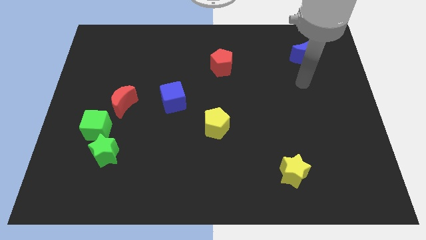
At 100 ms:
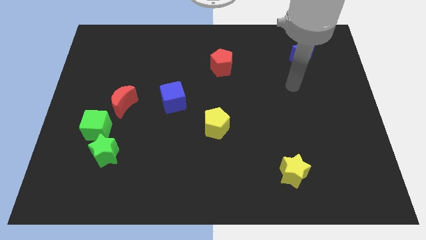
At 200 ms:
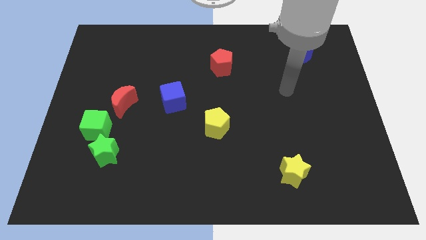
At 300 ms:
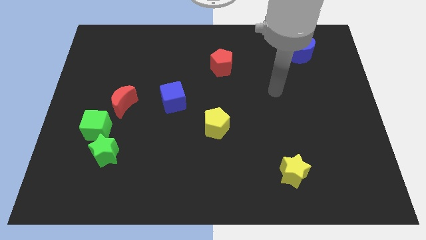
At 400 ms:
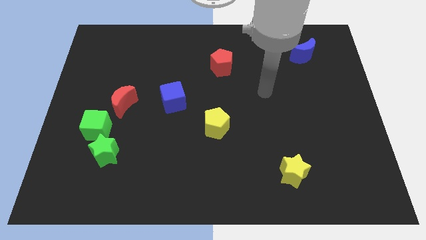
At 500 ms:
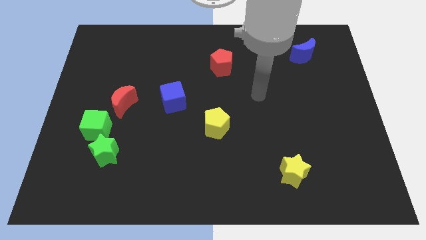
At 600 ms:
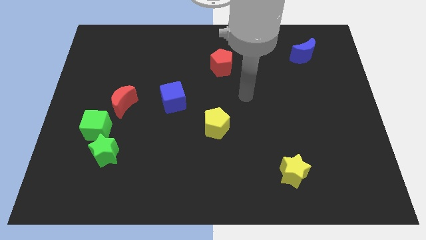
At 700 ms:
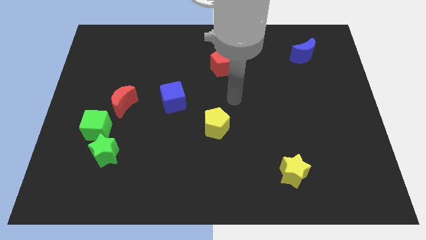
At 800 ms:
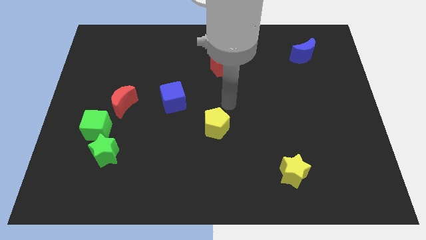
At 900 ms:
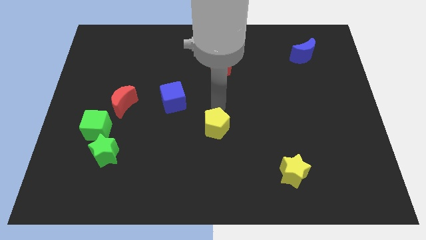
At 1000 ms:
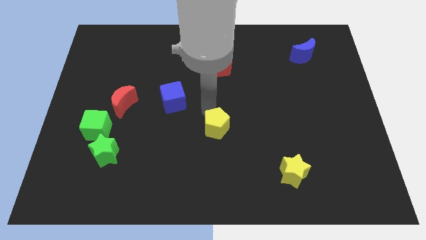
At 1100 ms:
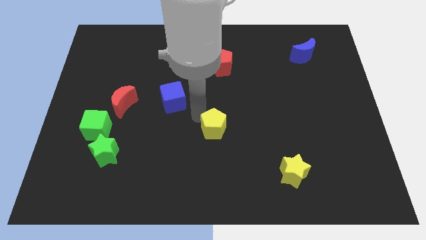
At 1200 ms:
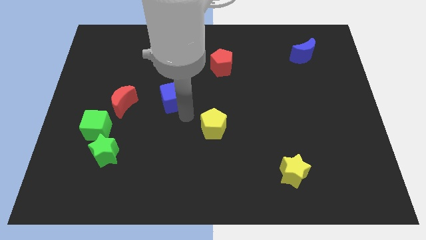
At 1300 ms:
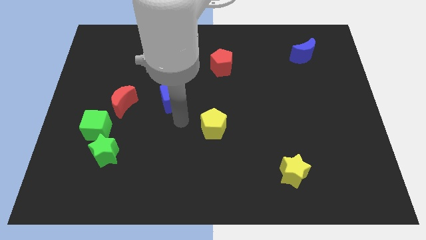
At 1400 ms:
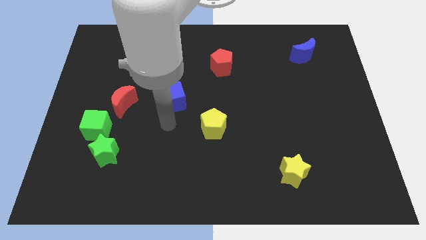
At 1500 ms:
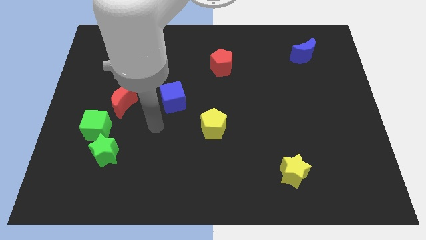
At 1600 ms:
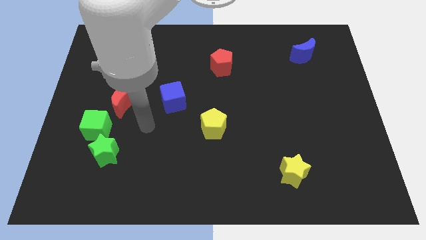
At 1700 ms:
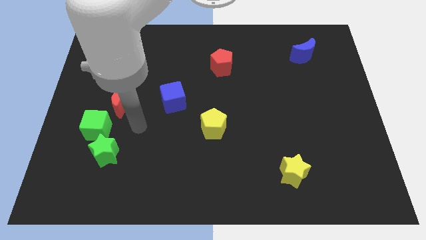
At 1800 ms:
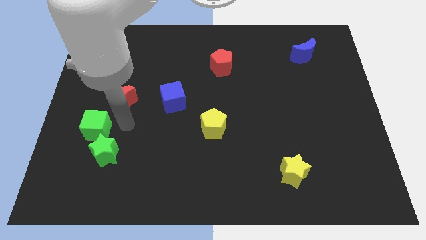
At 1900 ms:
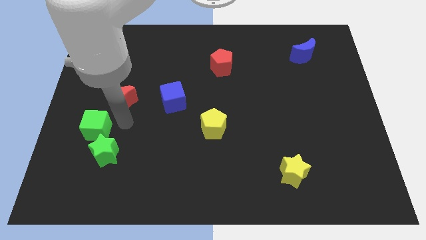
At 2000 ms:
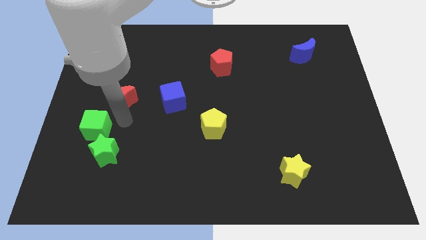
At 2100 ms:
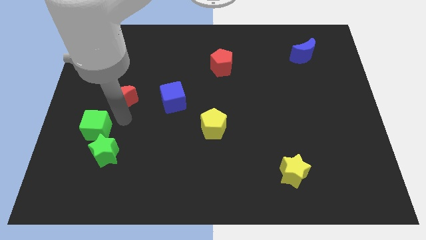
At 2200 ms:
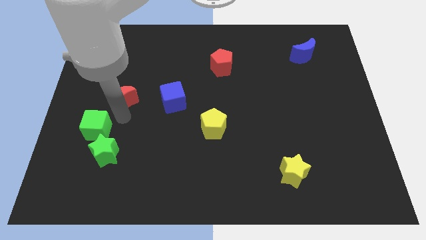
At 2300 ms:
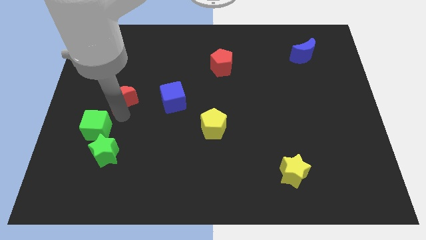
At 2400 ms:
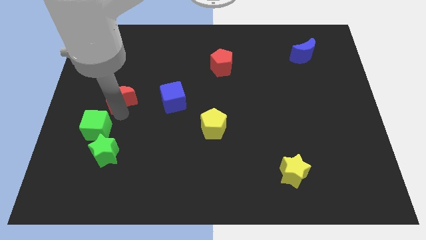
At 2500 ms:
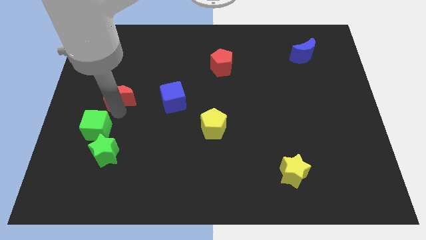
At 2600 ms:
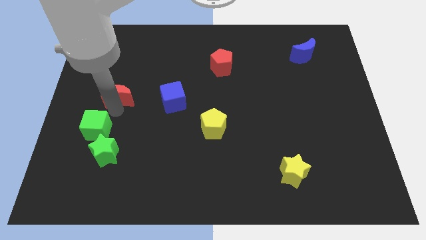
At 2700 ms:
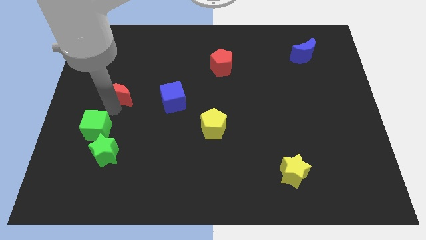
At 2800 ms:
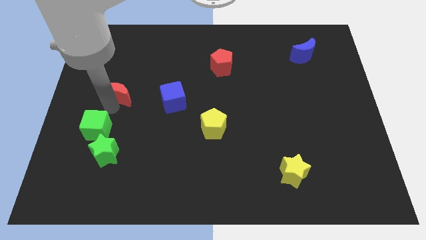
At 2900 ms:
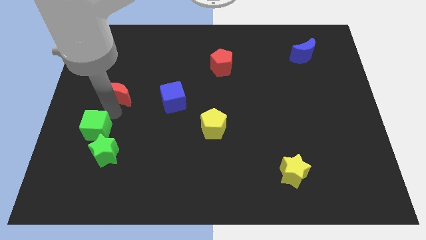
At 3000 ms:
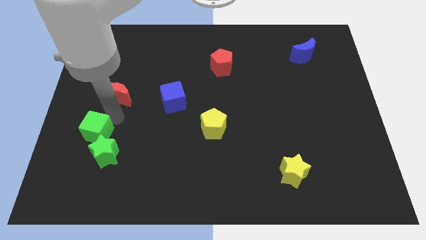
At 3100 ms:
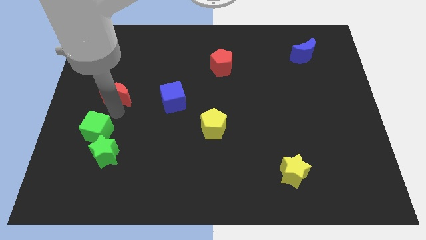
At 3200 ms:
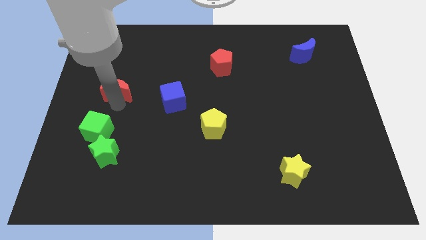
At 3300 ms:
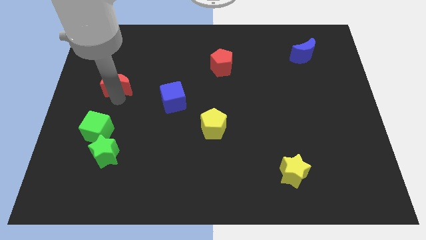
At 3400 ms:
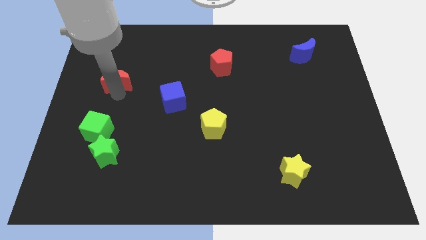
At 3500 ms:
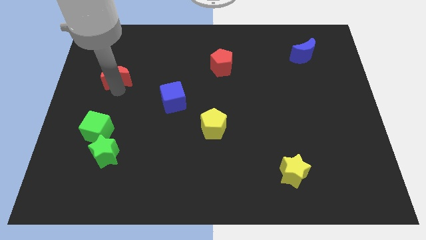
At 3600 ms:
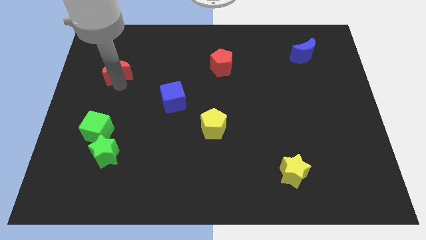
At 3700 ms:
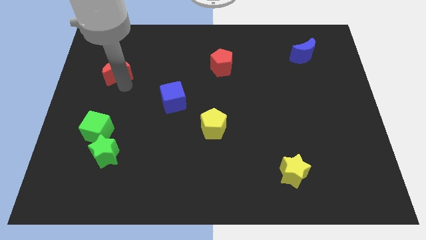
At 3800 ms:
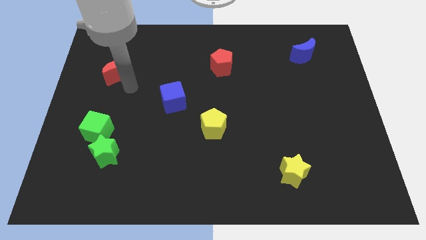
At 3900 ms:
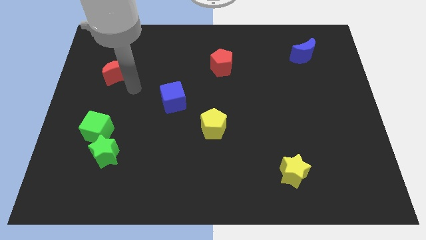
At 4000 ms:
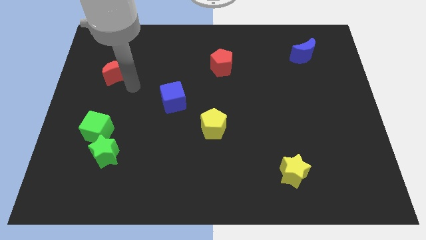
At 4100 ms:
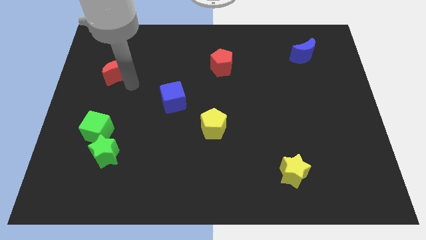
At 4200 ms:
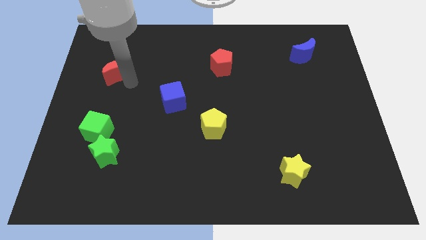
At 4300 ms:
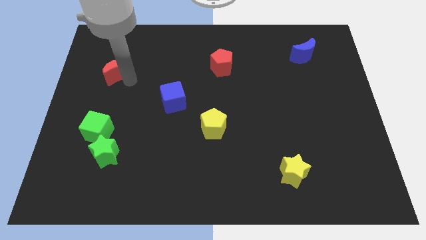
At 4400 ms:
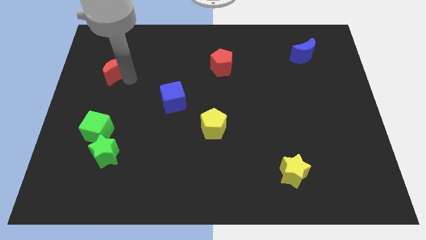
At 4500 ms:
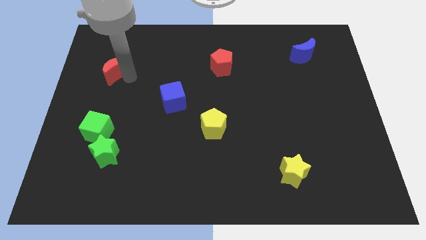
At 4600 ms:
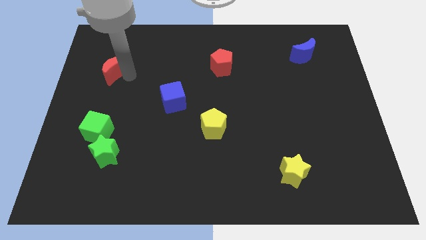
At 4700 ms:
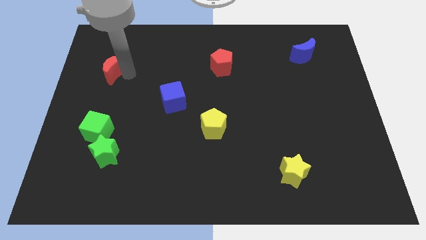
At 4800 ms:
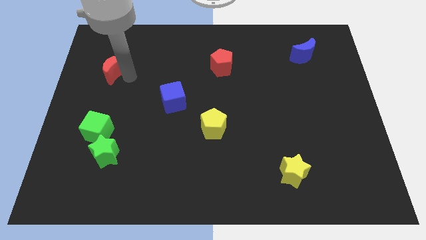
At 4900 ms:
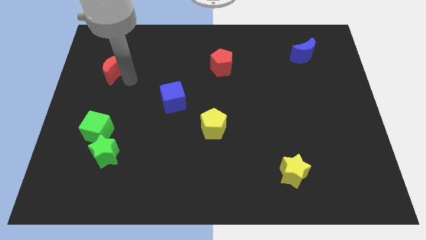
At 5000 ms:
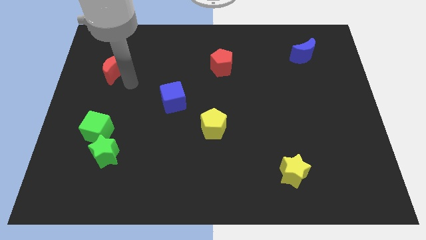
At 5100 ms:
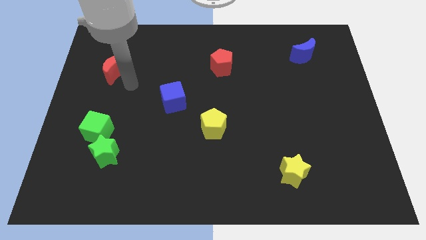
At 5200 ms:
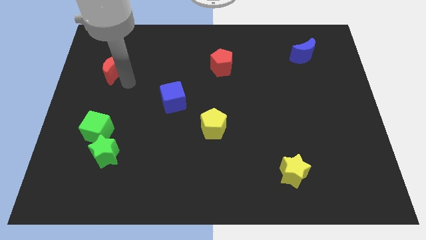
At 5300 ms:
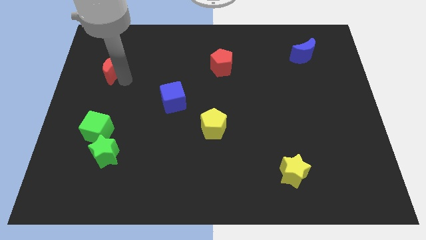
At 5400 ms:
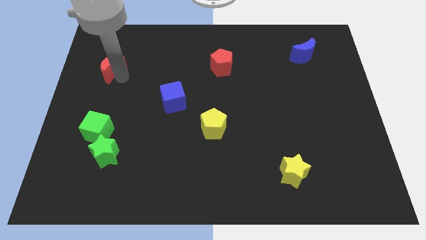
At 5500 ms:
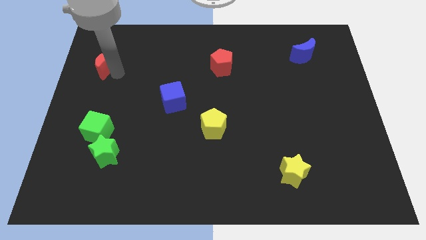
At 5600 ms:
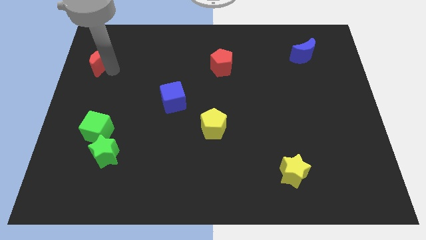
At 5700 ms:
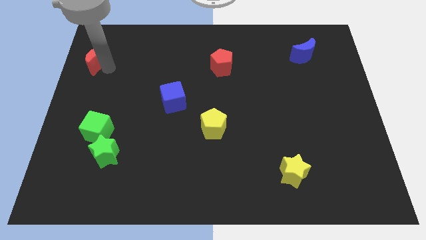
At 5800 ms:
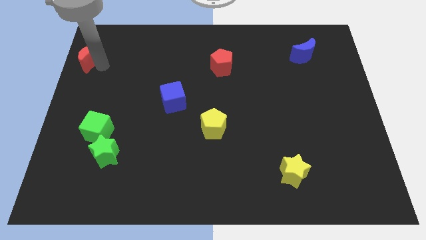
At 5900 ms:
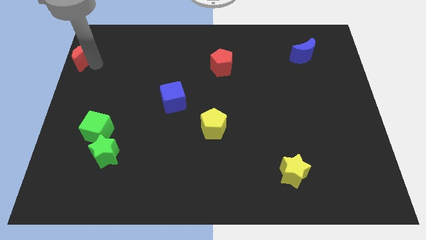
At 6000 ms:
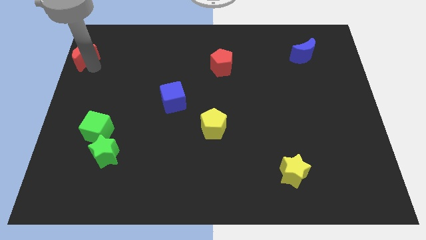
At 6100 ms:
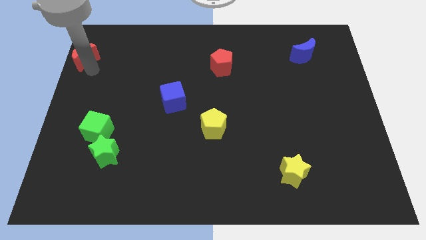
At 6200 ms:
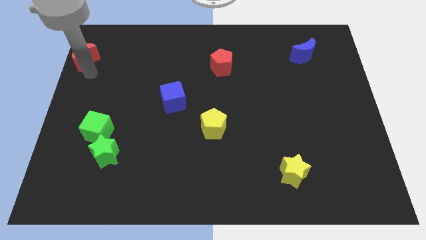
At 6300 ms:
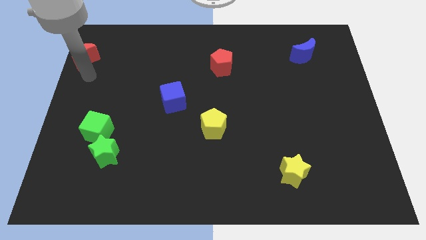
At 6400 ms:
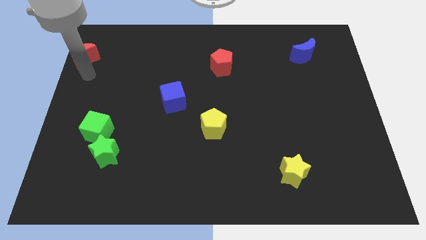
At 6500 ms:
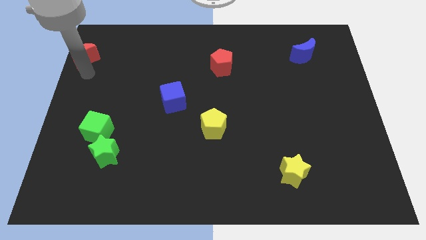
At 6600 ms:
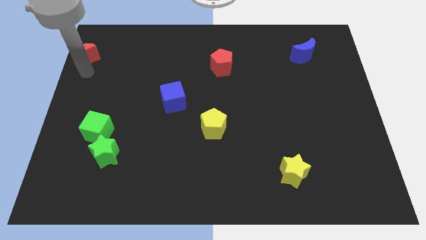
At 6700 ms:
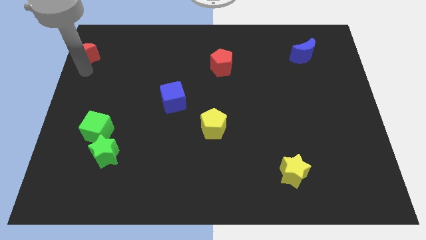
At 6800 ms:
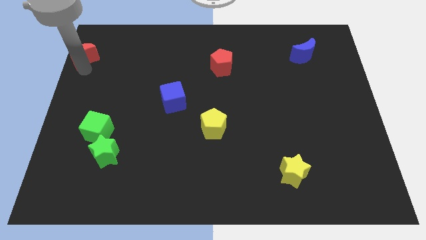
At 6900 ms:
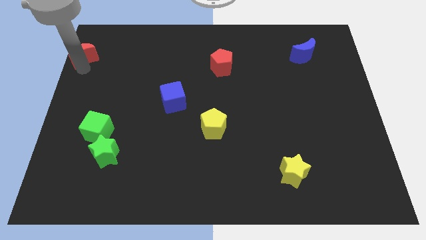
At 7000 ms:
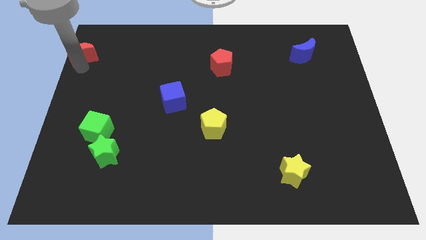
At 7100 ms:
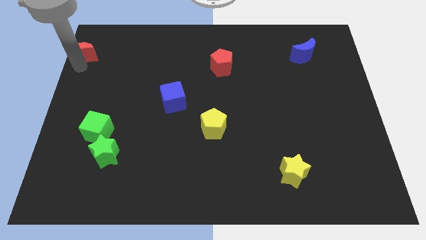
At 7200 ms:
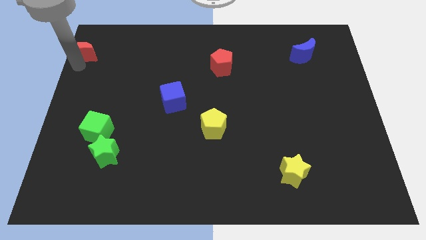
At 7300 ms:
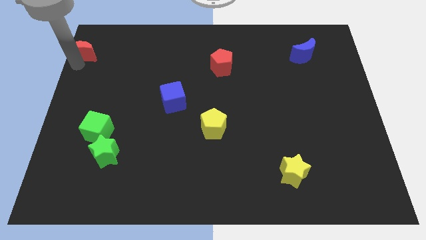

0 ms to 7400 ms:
push the red moon to the top left corner
